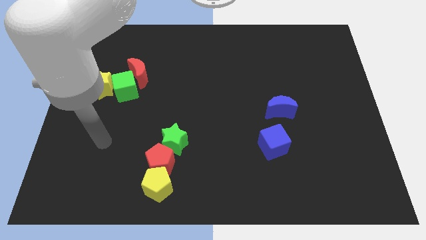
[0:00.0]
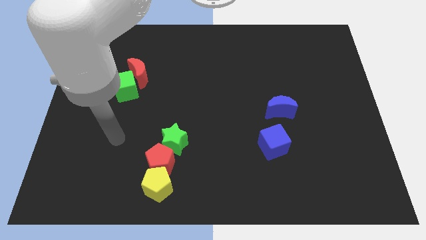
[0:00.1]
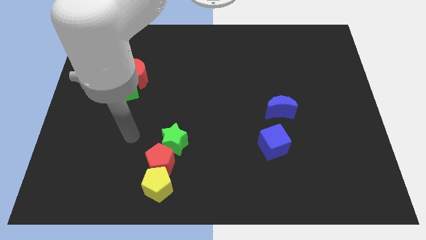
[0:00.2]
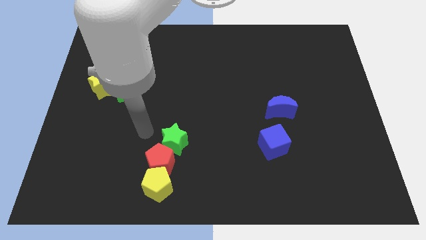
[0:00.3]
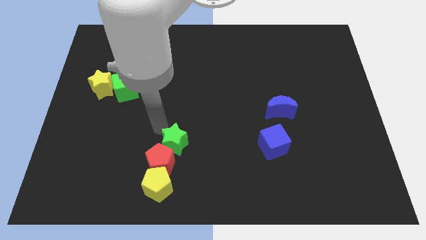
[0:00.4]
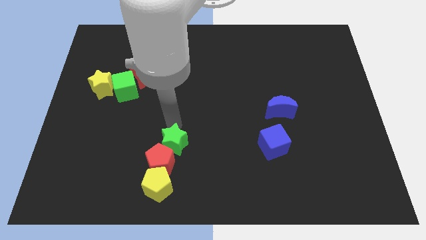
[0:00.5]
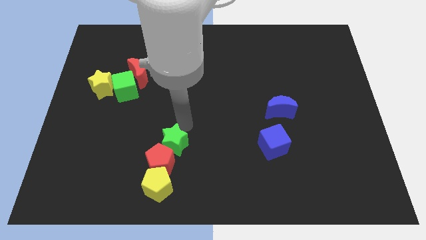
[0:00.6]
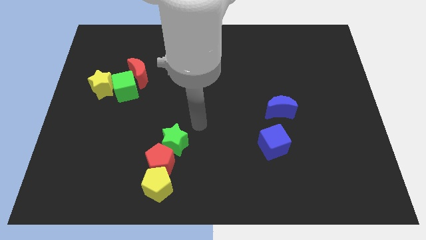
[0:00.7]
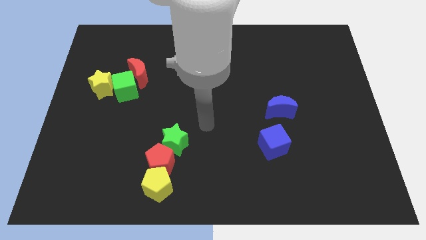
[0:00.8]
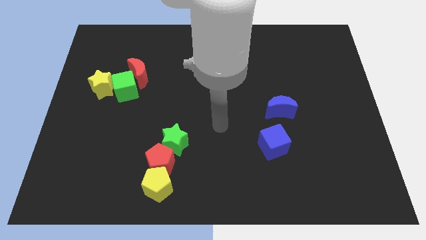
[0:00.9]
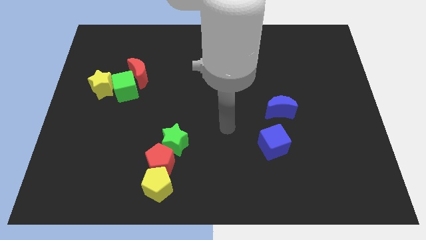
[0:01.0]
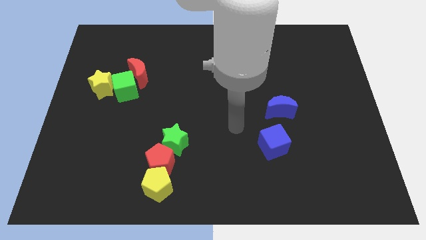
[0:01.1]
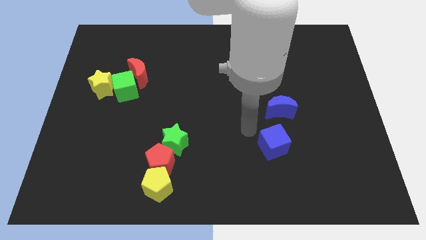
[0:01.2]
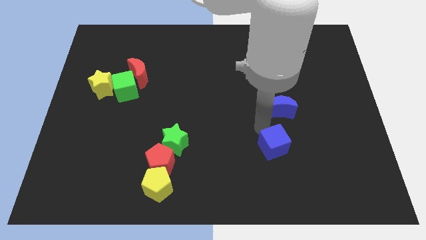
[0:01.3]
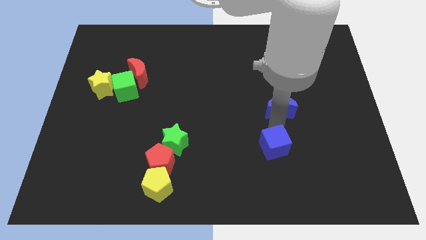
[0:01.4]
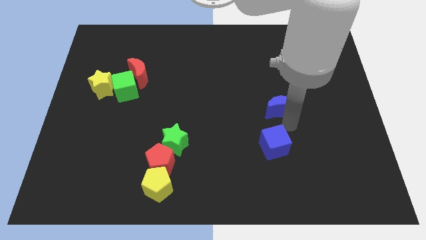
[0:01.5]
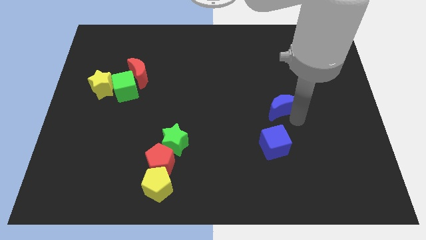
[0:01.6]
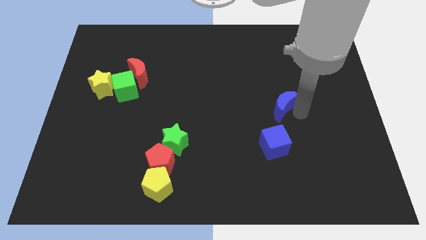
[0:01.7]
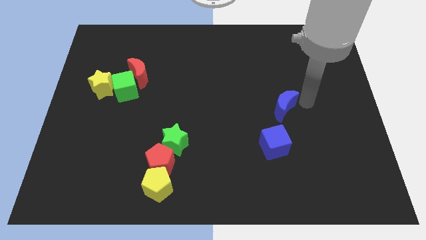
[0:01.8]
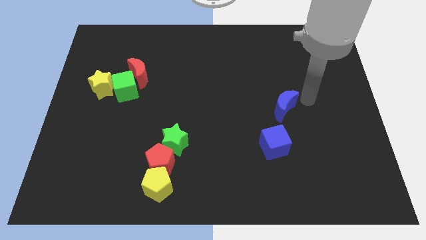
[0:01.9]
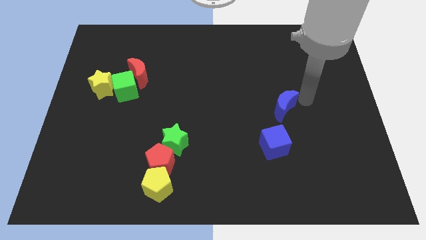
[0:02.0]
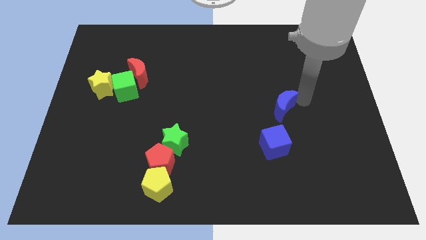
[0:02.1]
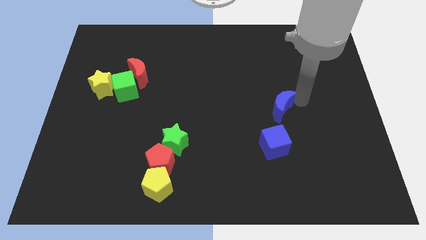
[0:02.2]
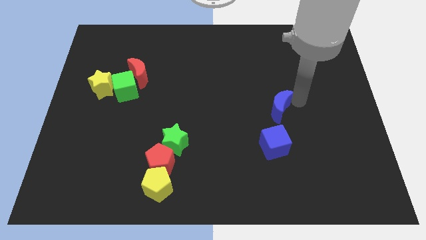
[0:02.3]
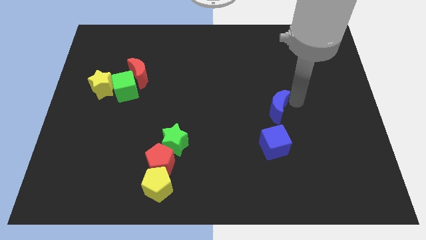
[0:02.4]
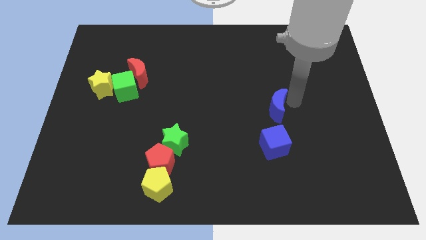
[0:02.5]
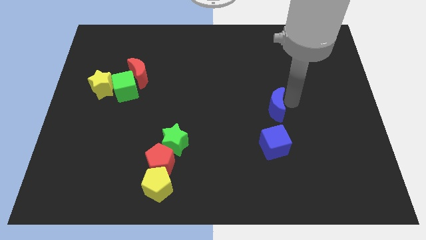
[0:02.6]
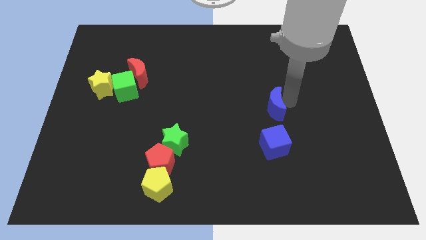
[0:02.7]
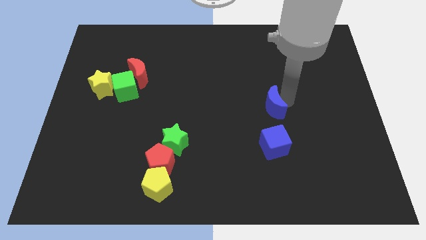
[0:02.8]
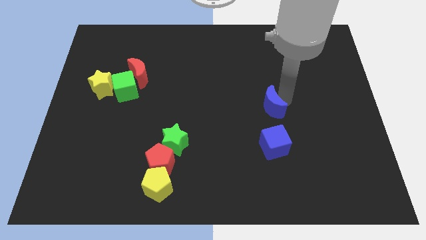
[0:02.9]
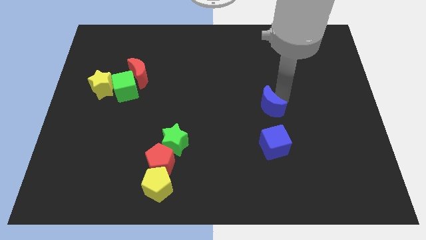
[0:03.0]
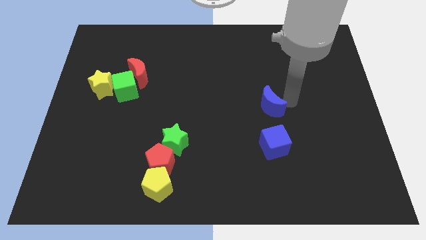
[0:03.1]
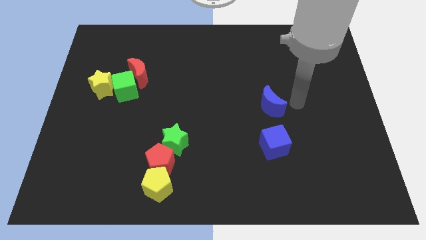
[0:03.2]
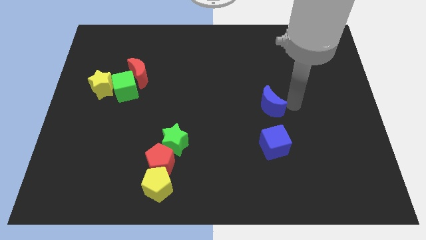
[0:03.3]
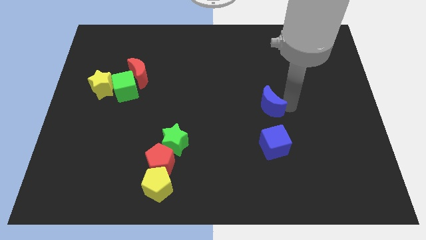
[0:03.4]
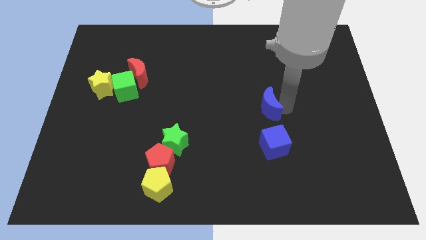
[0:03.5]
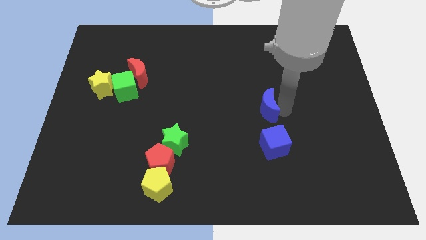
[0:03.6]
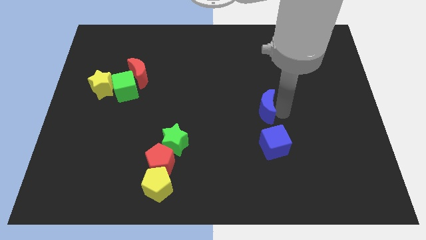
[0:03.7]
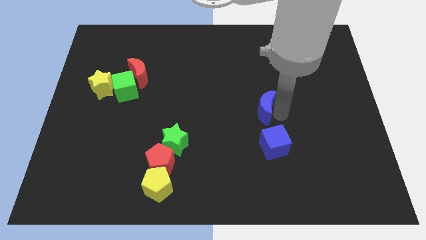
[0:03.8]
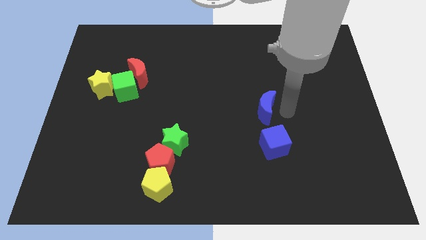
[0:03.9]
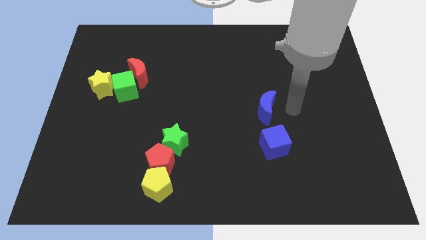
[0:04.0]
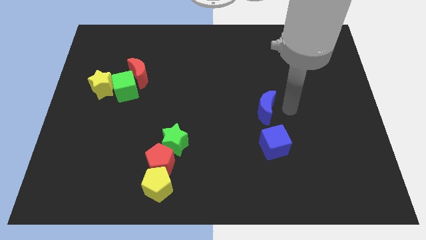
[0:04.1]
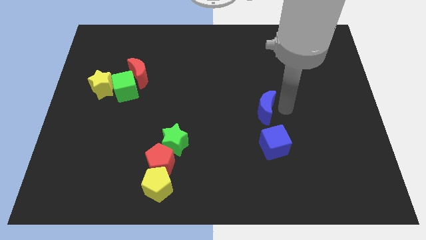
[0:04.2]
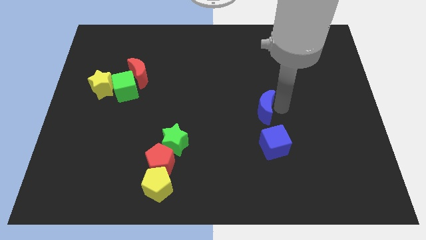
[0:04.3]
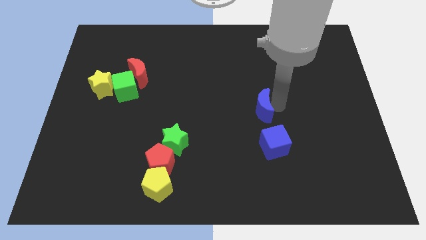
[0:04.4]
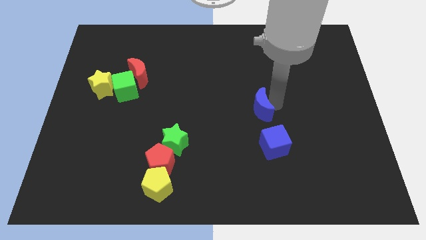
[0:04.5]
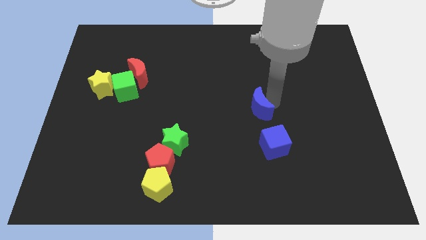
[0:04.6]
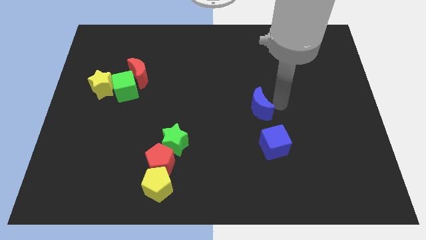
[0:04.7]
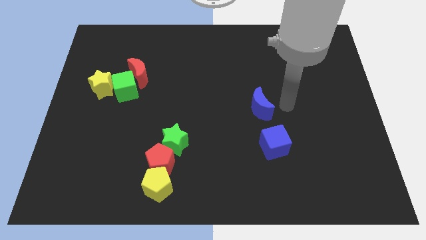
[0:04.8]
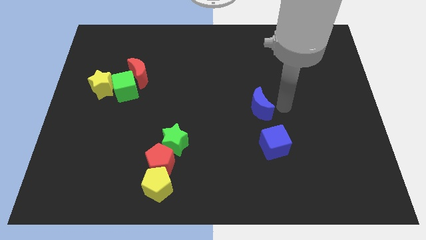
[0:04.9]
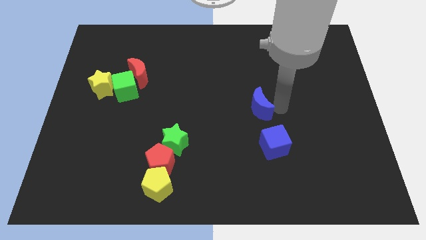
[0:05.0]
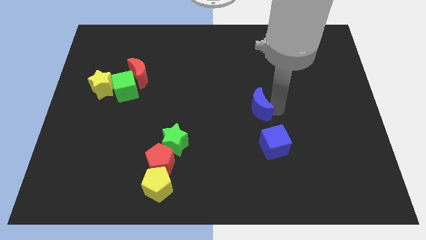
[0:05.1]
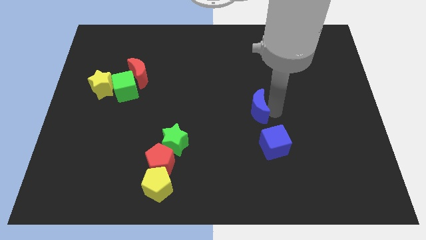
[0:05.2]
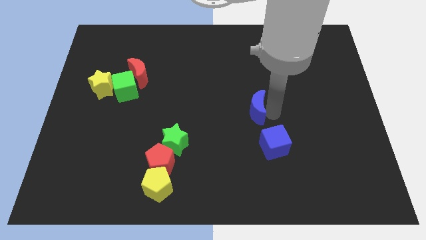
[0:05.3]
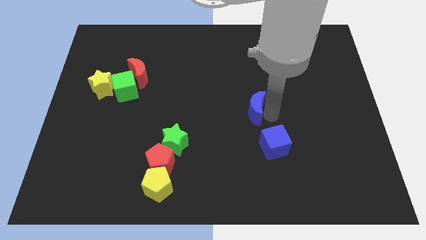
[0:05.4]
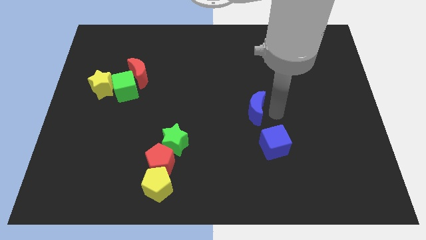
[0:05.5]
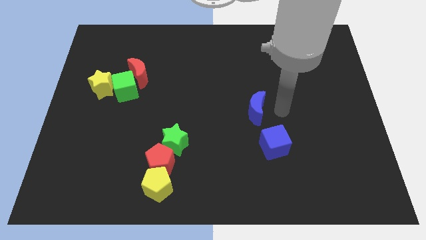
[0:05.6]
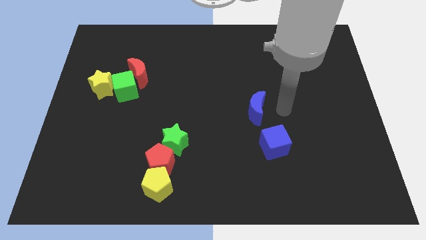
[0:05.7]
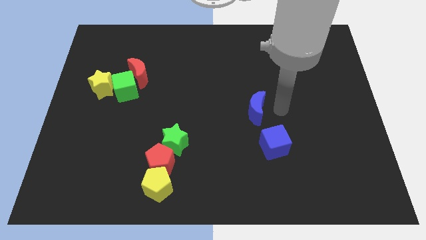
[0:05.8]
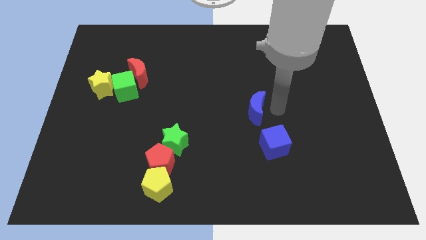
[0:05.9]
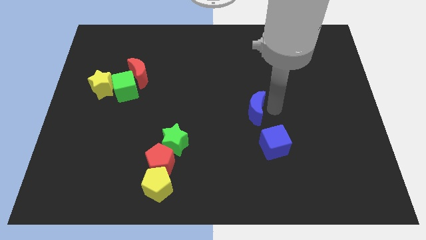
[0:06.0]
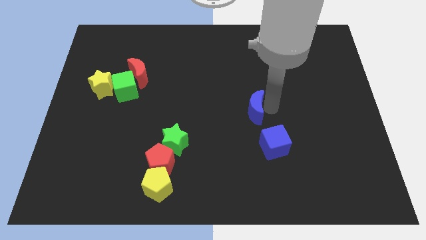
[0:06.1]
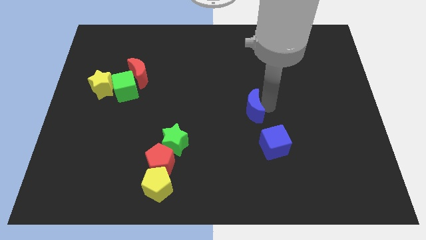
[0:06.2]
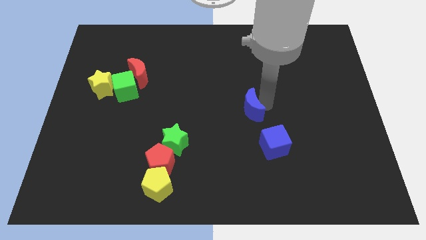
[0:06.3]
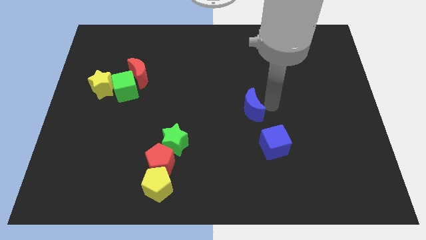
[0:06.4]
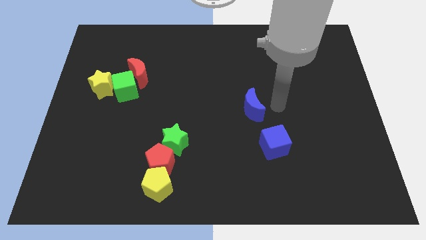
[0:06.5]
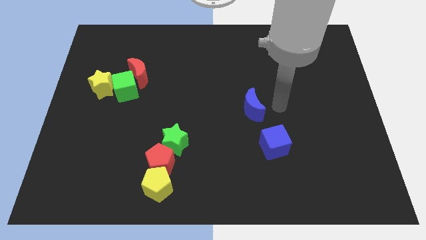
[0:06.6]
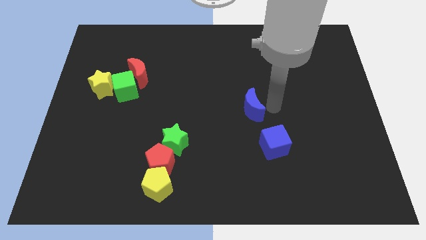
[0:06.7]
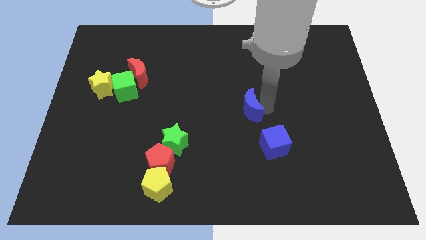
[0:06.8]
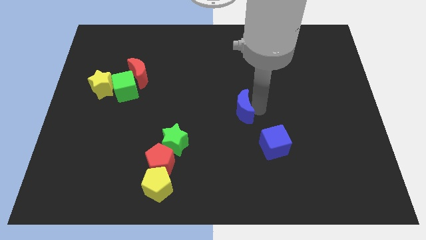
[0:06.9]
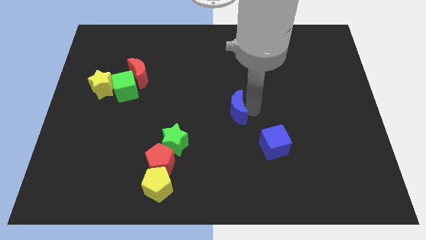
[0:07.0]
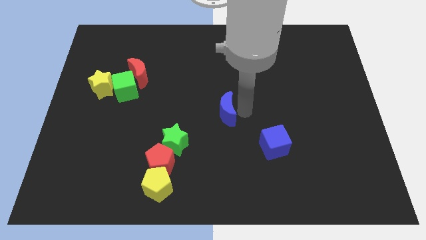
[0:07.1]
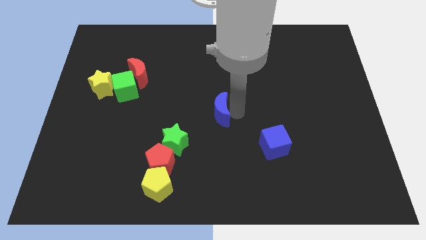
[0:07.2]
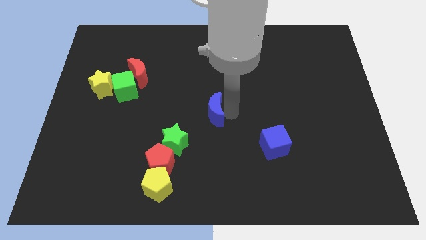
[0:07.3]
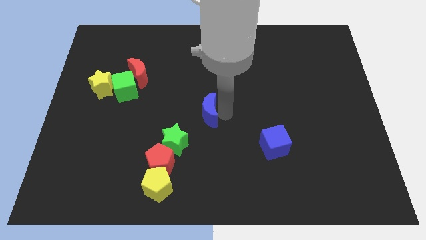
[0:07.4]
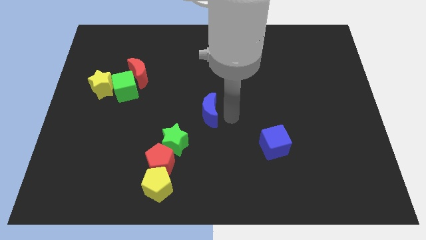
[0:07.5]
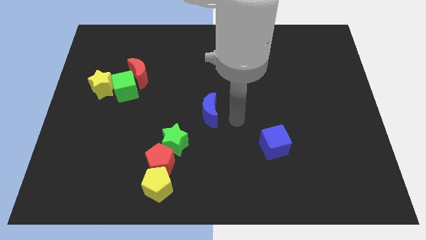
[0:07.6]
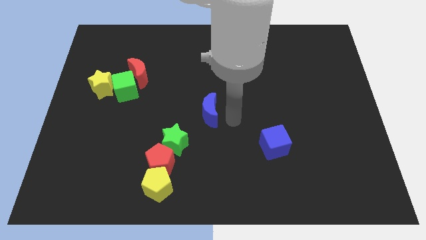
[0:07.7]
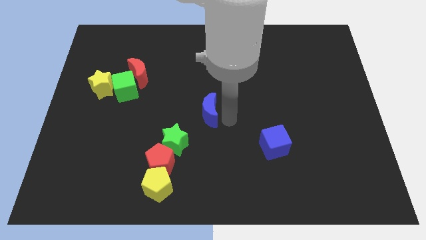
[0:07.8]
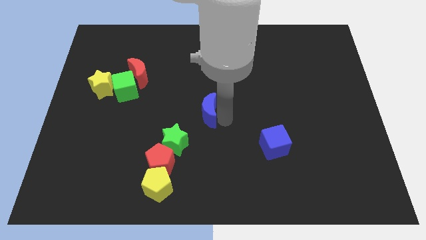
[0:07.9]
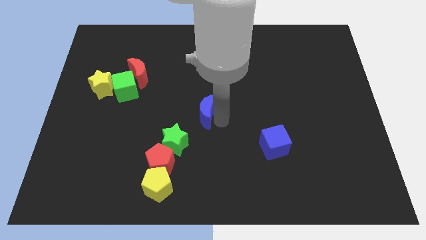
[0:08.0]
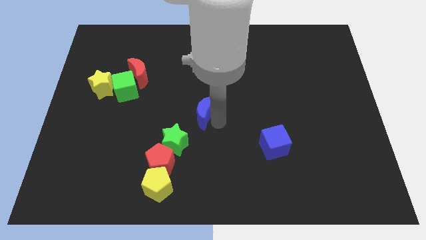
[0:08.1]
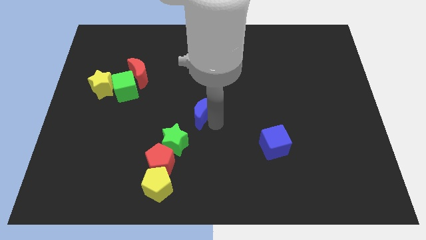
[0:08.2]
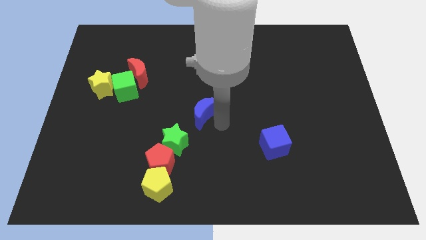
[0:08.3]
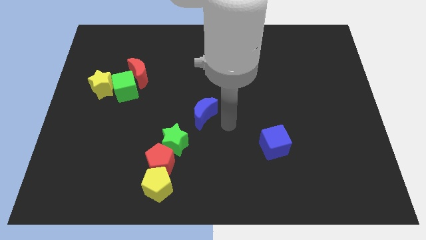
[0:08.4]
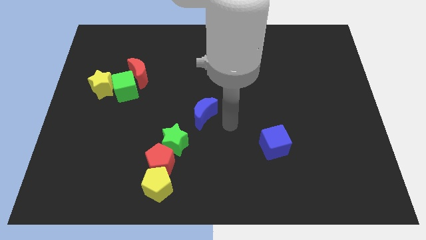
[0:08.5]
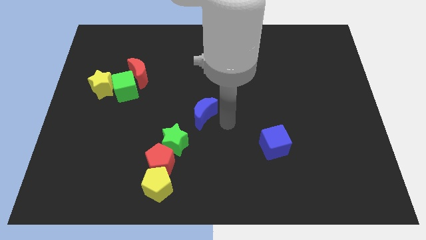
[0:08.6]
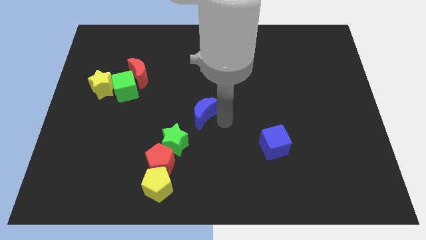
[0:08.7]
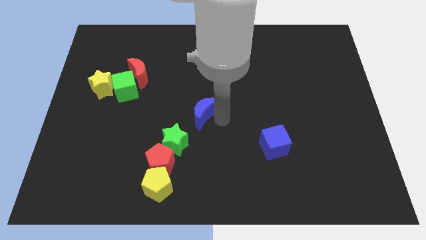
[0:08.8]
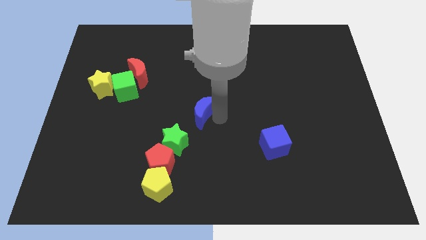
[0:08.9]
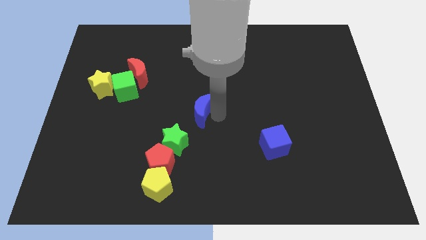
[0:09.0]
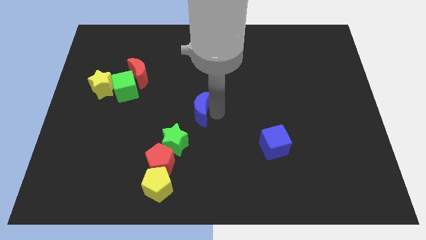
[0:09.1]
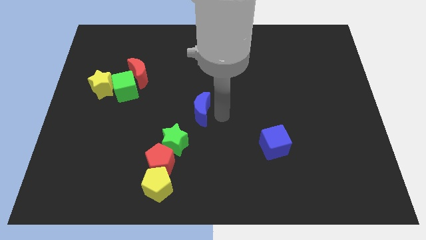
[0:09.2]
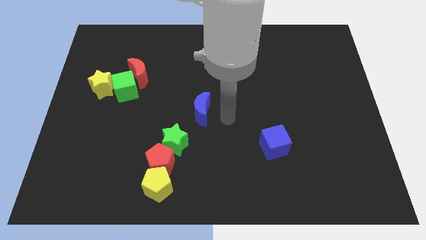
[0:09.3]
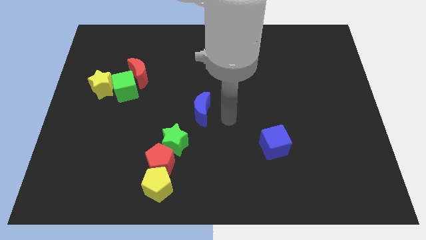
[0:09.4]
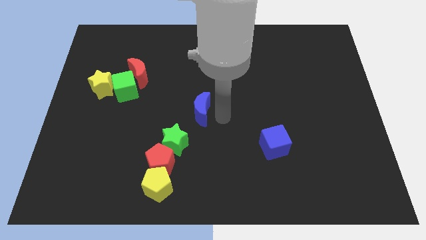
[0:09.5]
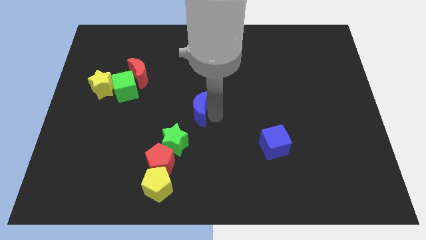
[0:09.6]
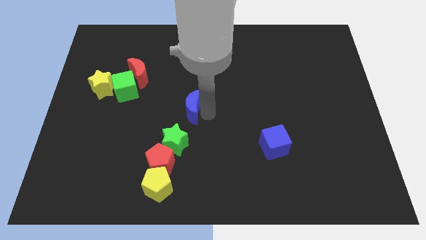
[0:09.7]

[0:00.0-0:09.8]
move the blue moon to the top side of the green star
